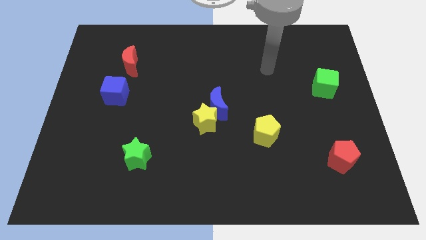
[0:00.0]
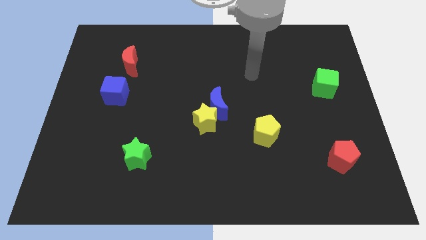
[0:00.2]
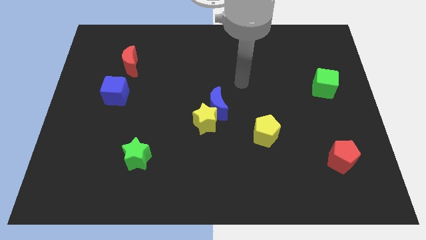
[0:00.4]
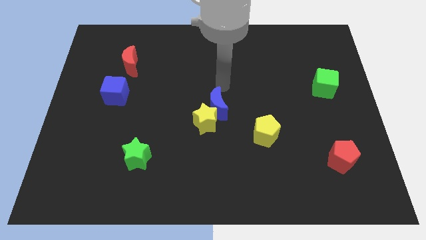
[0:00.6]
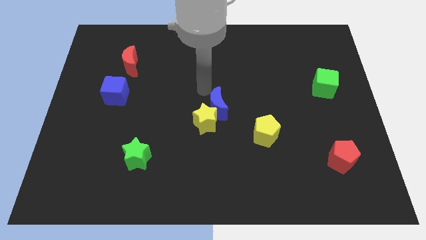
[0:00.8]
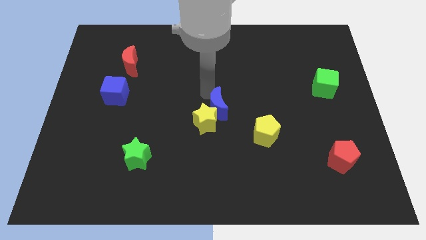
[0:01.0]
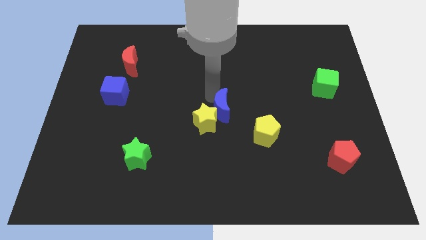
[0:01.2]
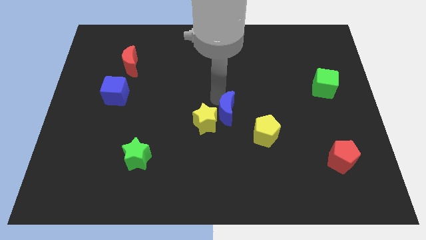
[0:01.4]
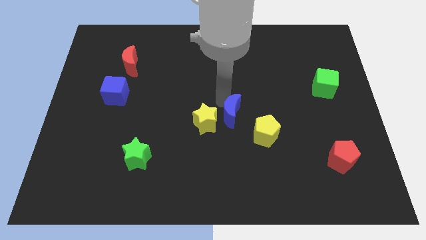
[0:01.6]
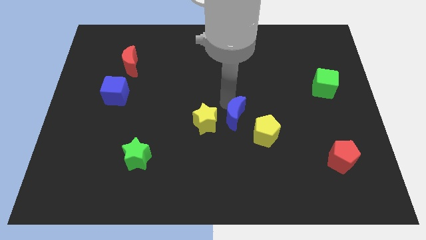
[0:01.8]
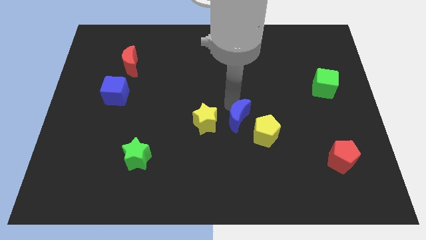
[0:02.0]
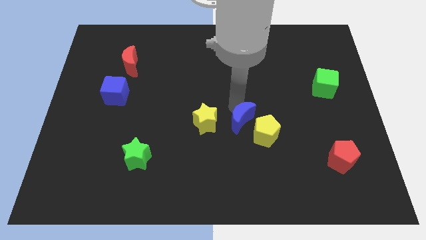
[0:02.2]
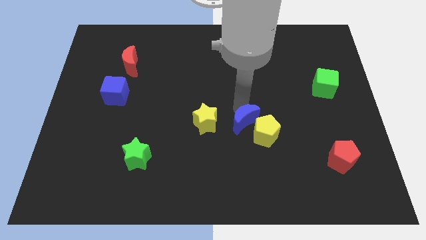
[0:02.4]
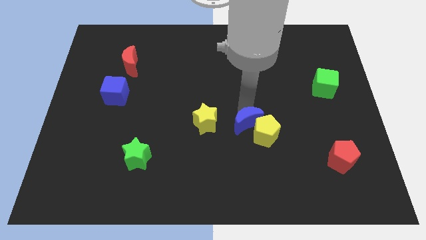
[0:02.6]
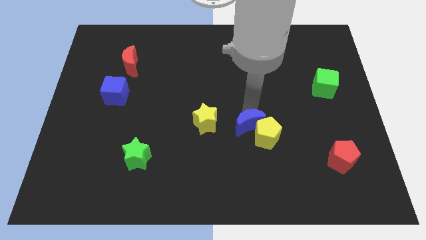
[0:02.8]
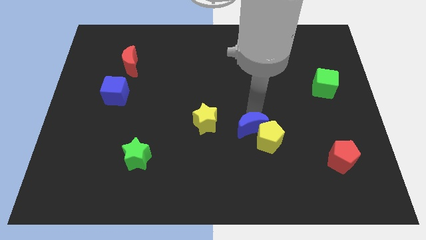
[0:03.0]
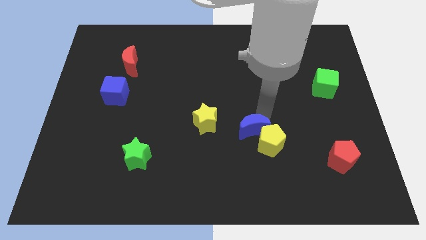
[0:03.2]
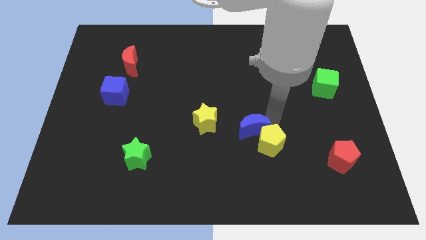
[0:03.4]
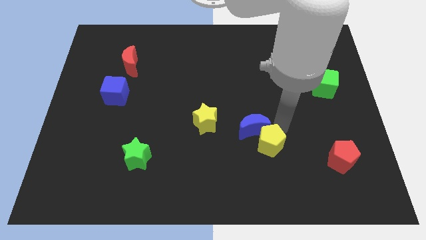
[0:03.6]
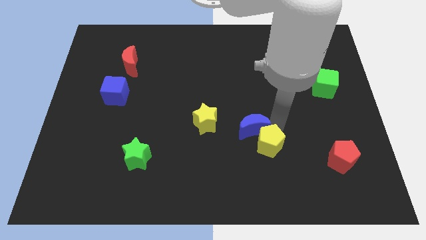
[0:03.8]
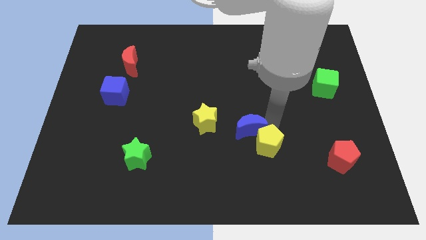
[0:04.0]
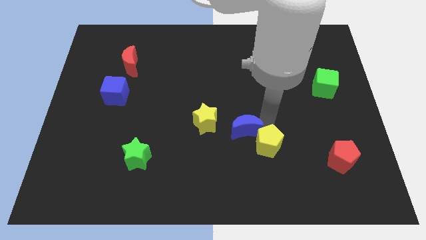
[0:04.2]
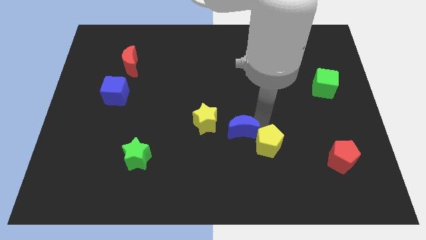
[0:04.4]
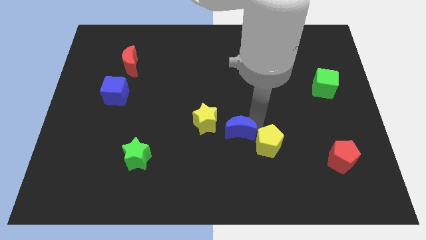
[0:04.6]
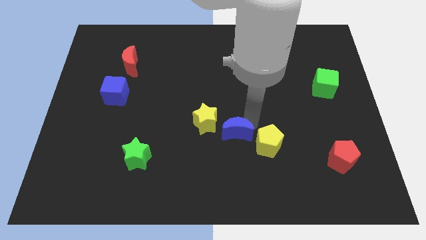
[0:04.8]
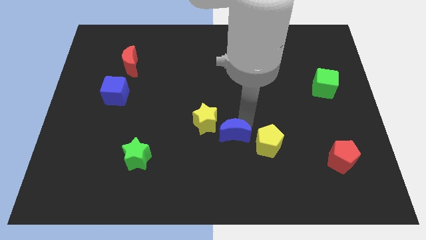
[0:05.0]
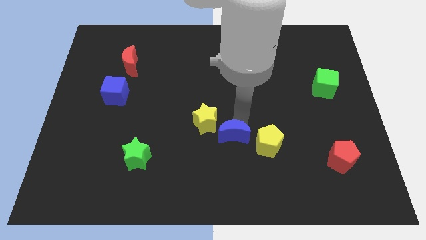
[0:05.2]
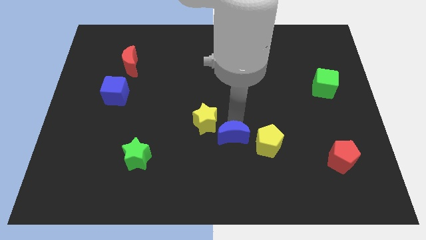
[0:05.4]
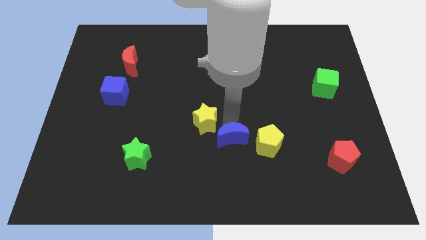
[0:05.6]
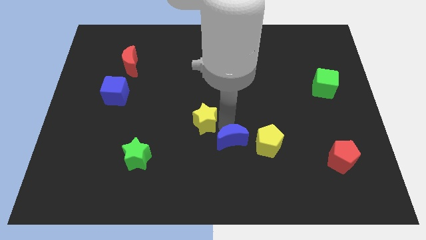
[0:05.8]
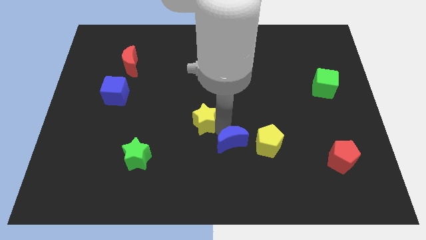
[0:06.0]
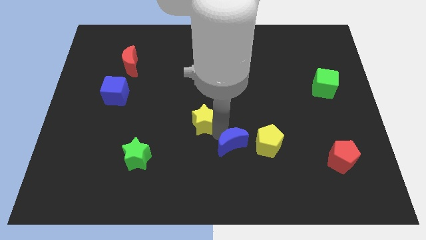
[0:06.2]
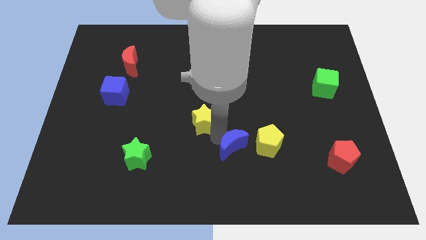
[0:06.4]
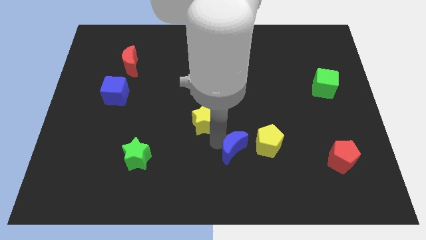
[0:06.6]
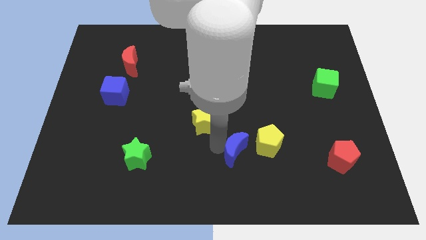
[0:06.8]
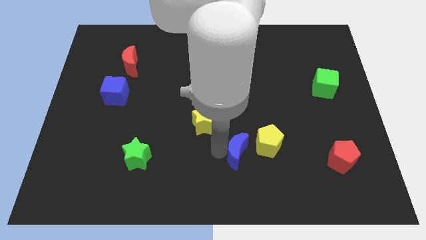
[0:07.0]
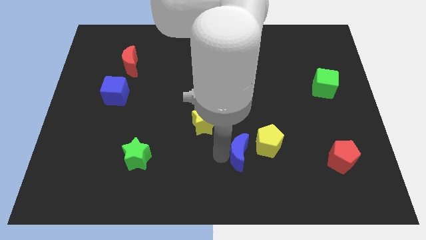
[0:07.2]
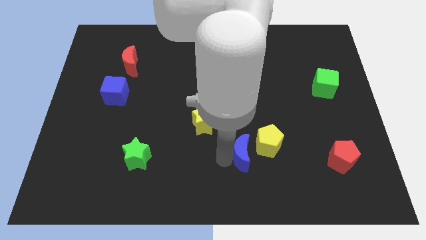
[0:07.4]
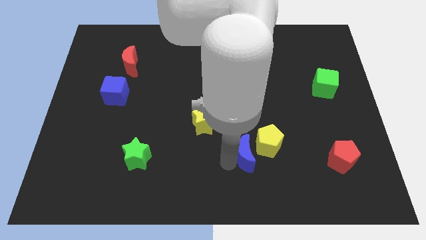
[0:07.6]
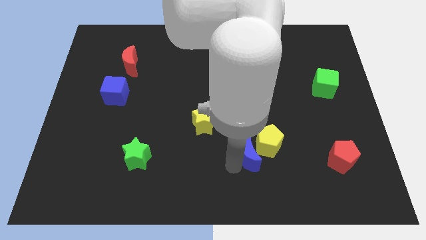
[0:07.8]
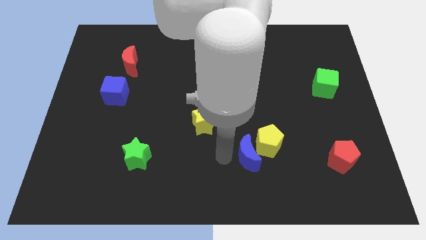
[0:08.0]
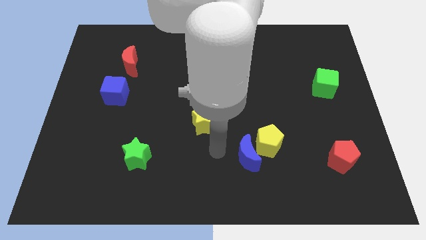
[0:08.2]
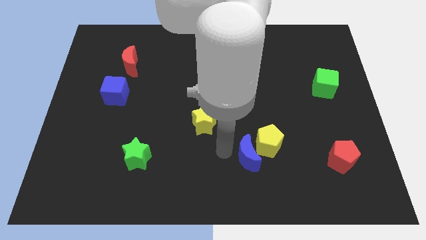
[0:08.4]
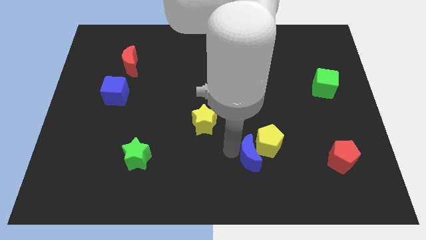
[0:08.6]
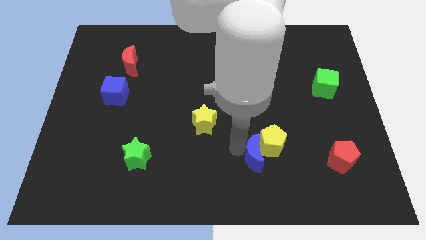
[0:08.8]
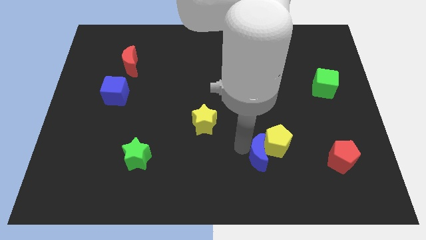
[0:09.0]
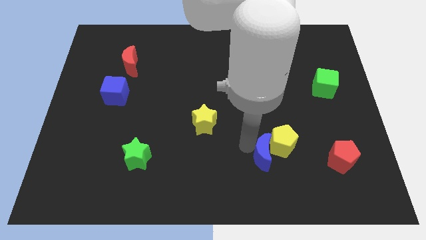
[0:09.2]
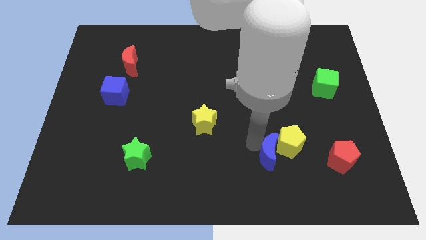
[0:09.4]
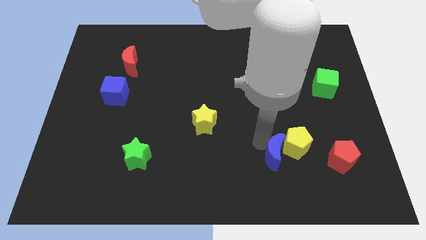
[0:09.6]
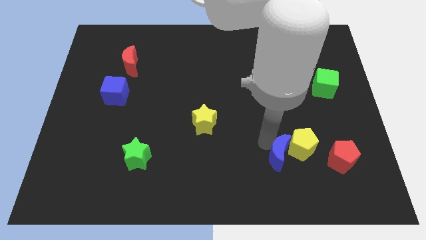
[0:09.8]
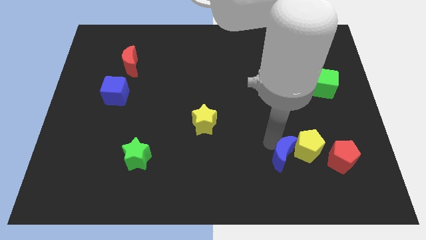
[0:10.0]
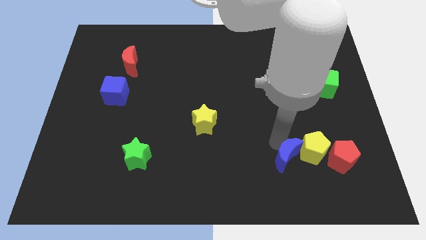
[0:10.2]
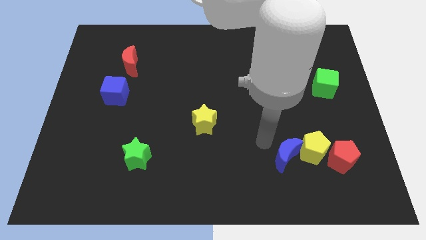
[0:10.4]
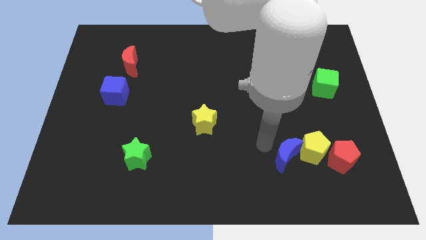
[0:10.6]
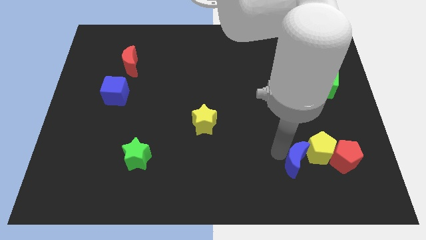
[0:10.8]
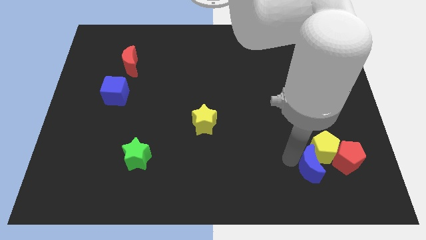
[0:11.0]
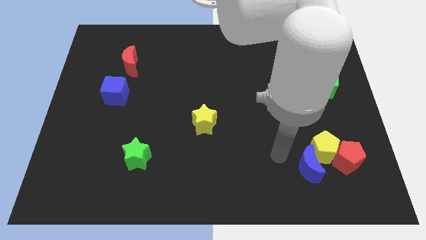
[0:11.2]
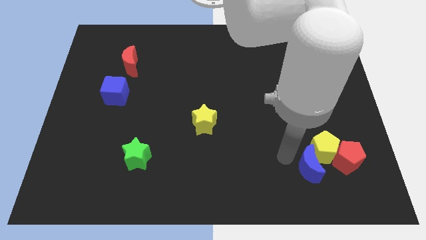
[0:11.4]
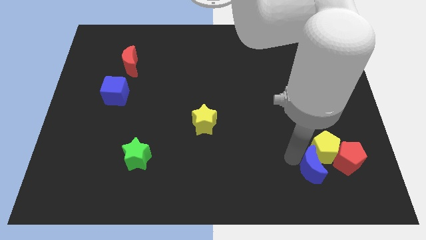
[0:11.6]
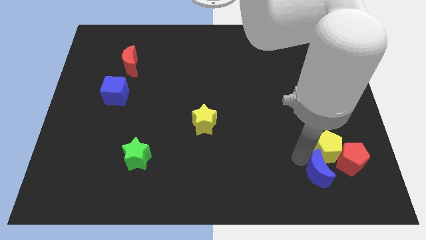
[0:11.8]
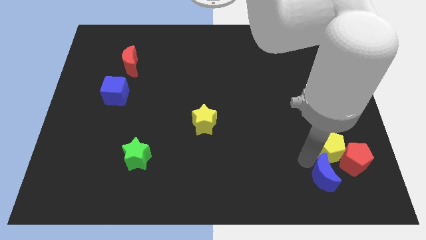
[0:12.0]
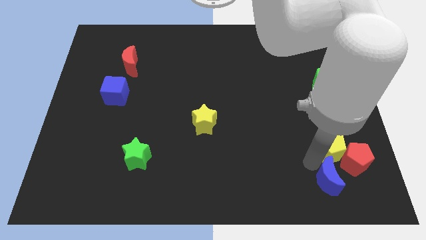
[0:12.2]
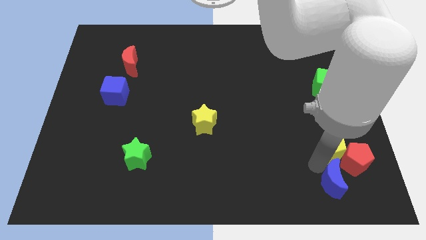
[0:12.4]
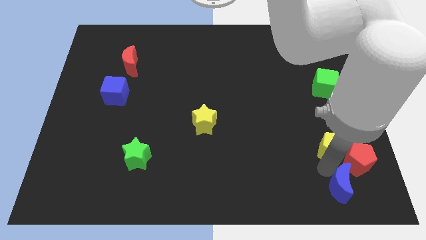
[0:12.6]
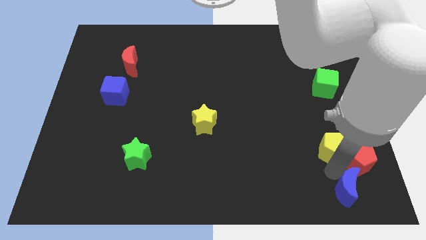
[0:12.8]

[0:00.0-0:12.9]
slide the blue moon to the bottom right
